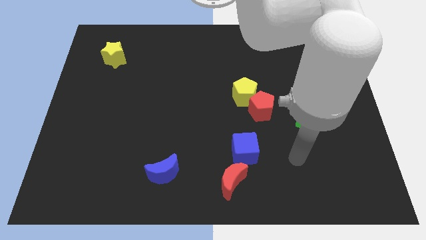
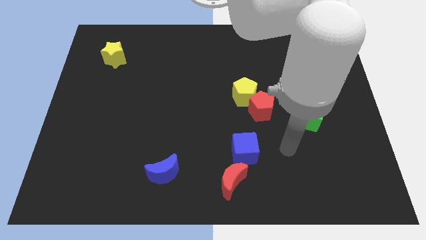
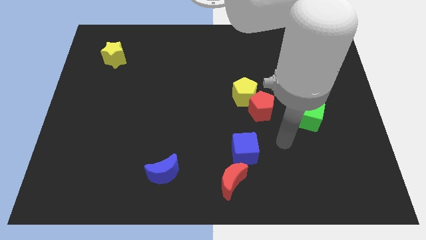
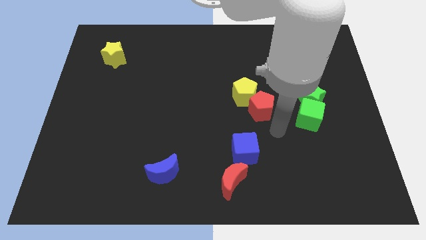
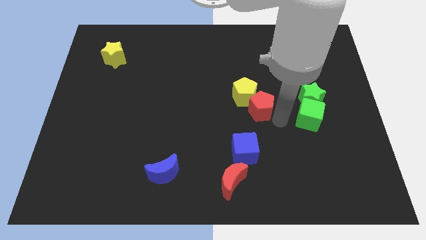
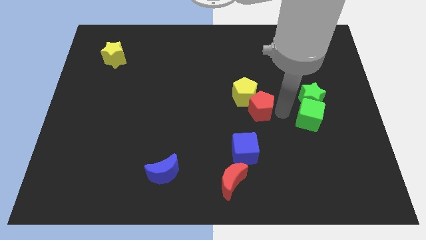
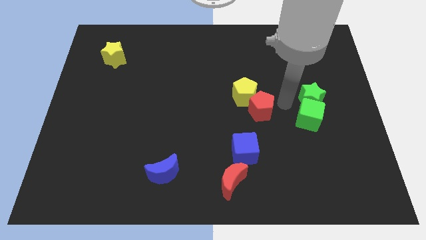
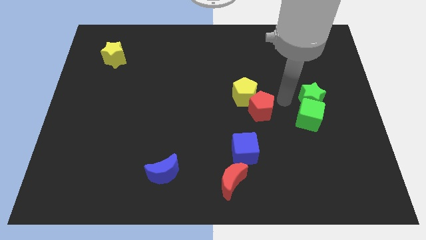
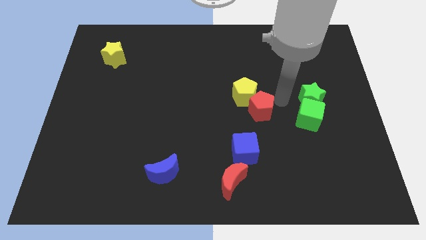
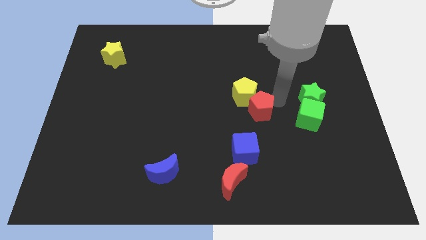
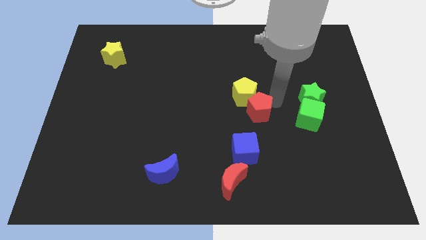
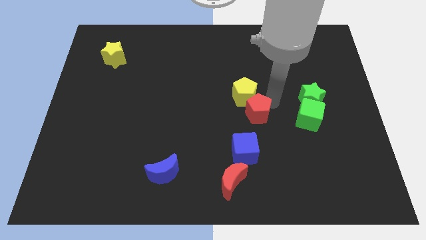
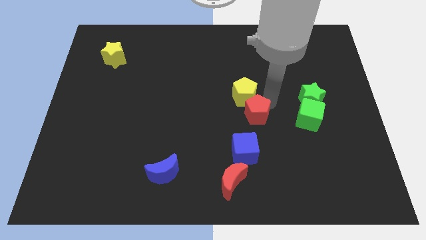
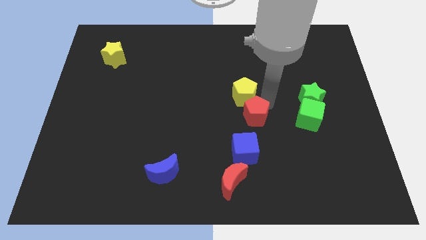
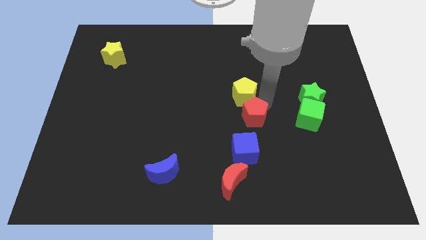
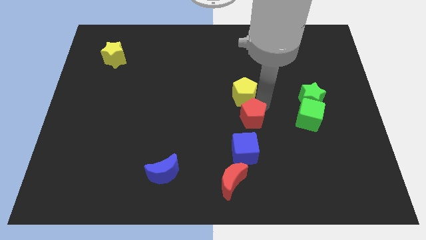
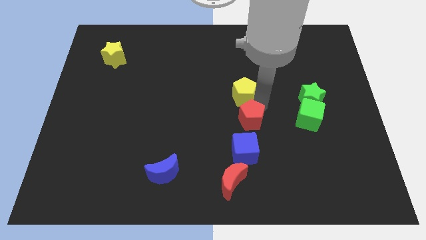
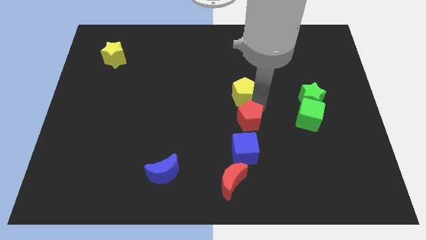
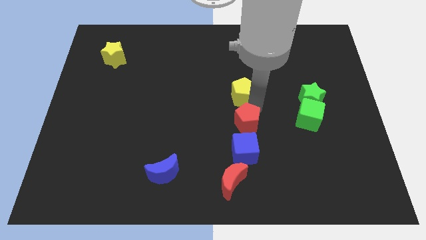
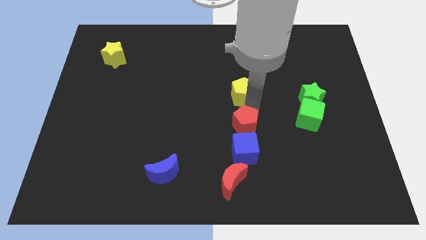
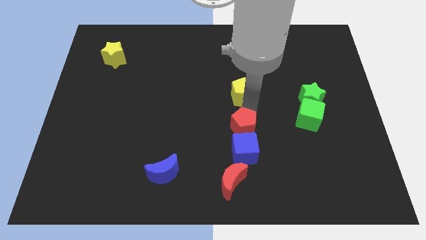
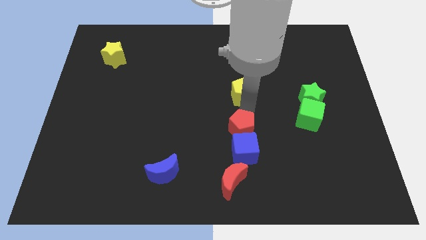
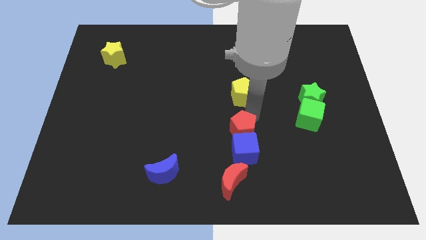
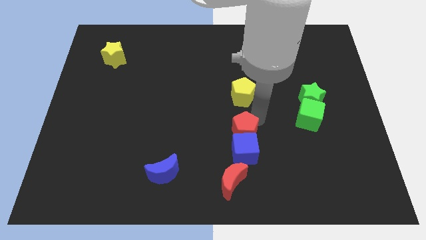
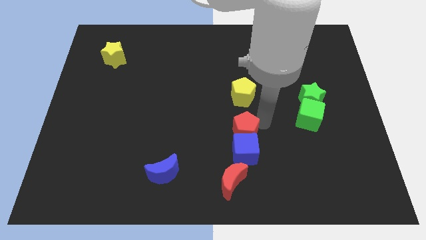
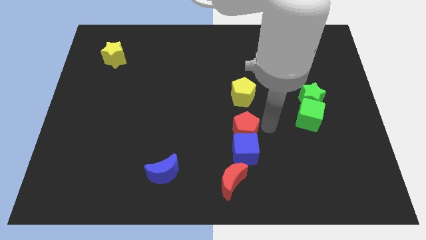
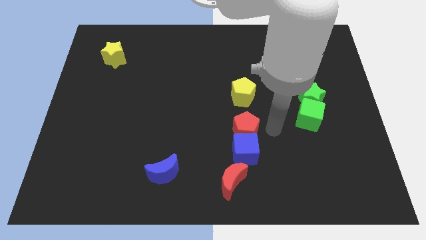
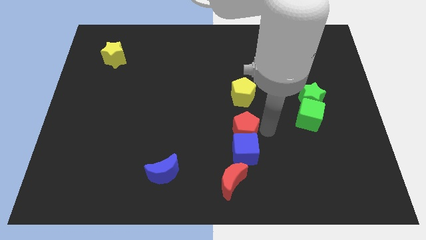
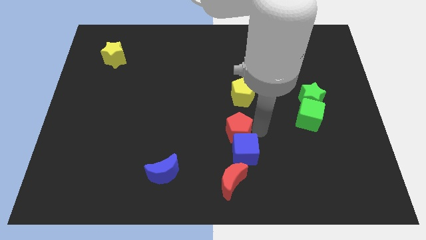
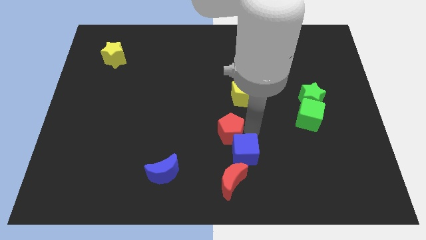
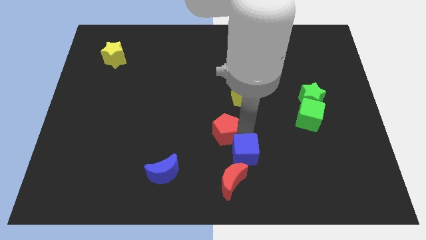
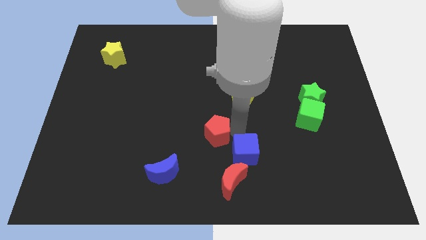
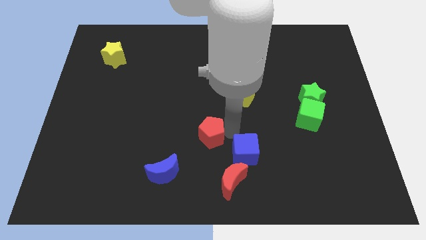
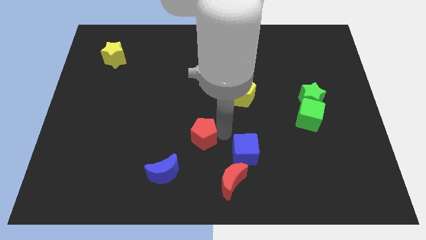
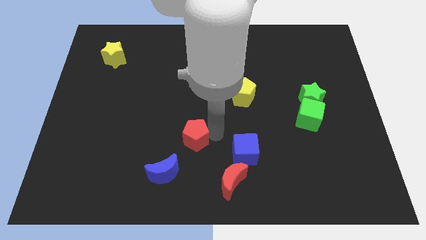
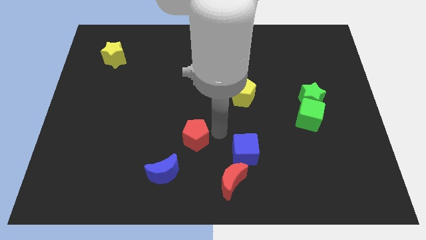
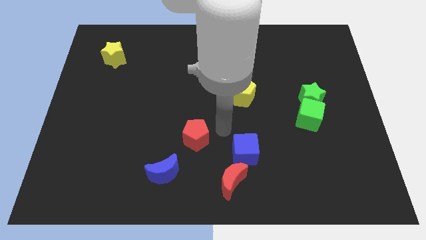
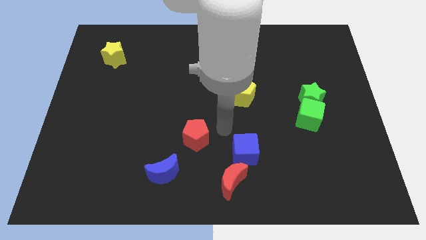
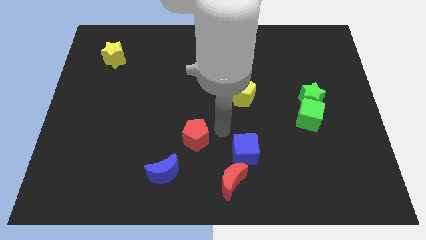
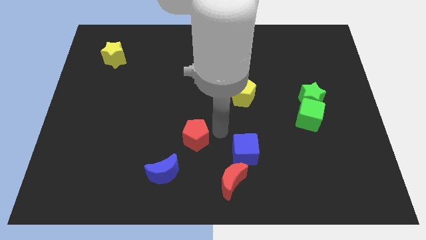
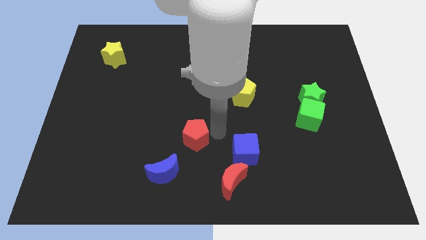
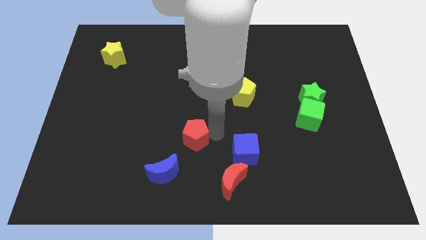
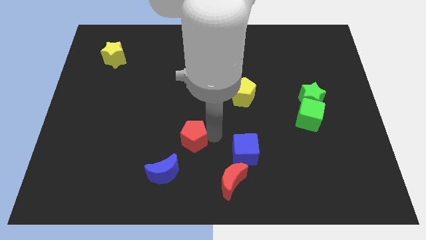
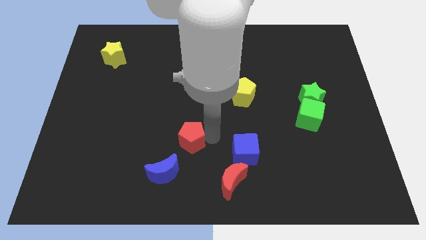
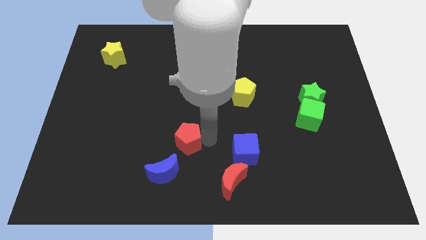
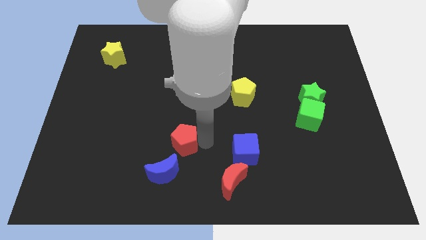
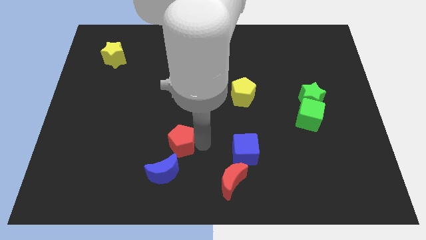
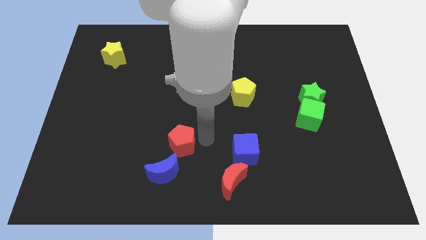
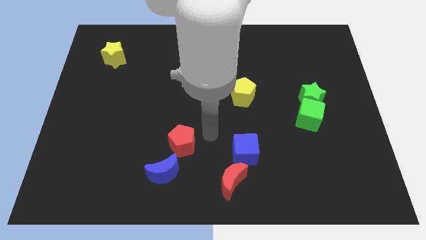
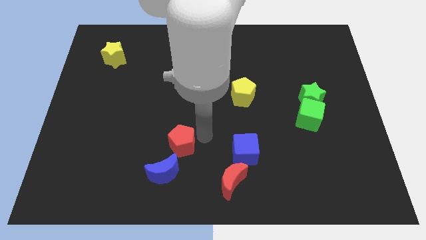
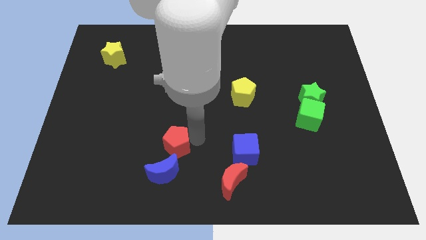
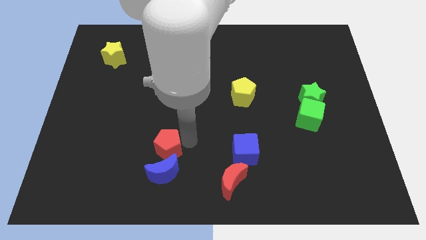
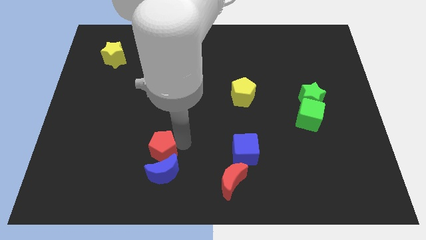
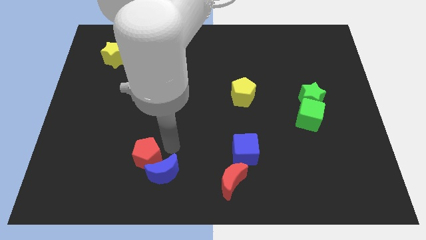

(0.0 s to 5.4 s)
move the red pentagon left of the blue moon

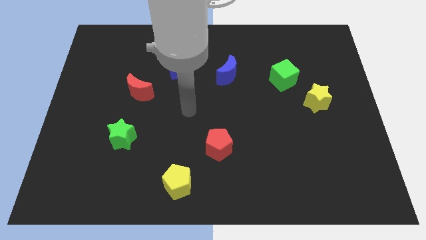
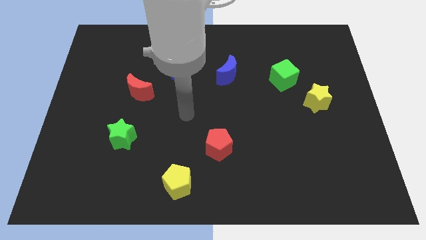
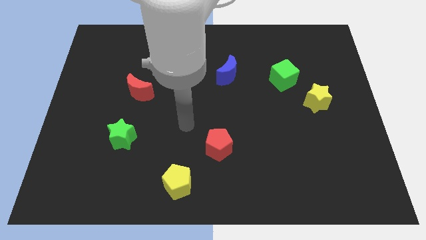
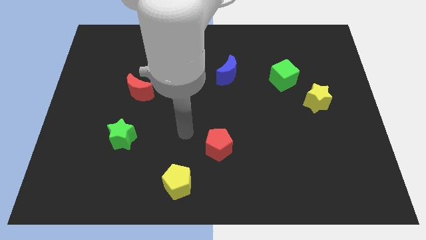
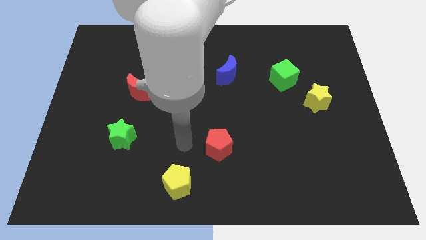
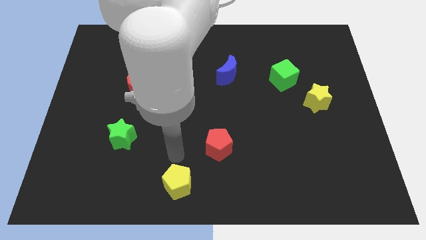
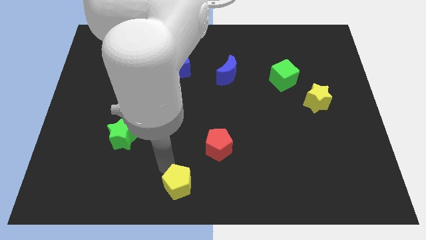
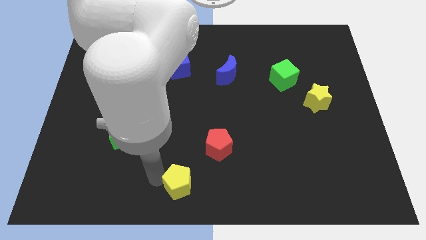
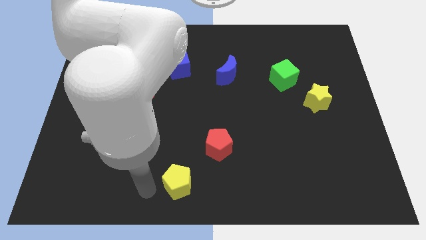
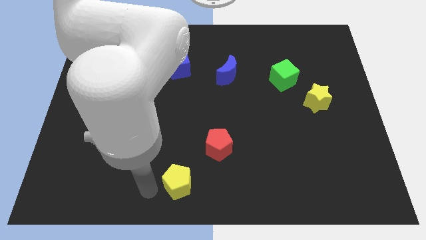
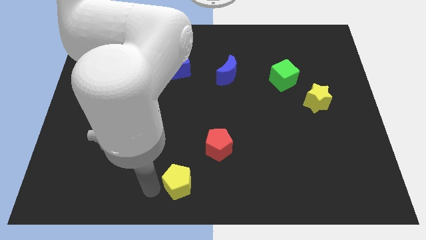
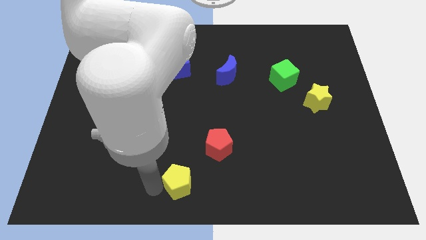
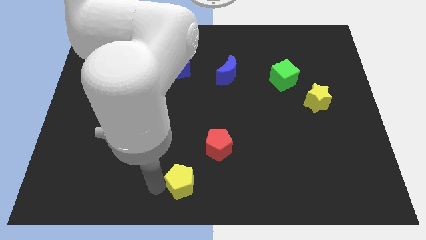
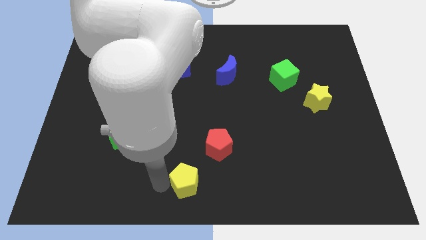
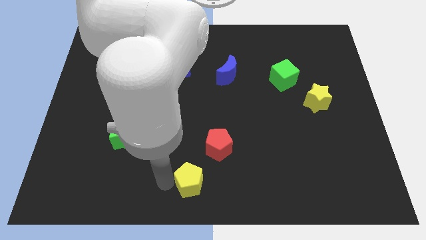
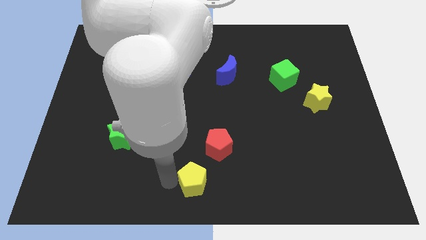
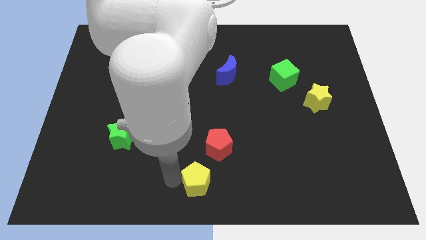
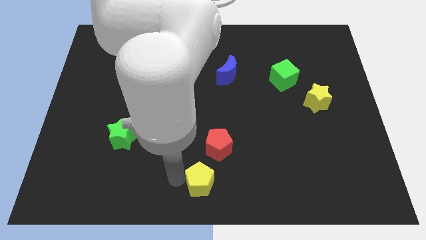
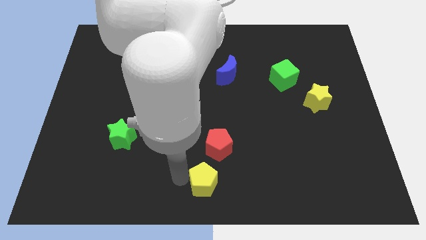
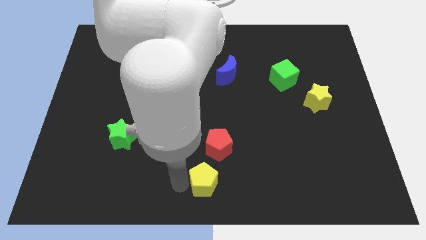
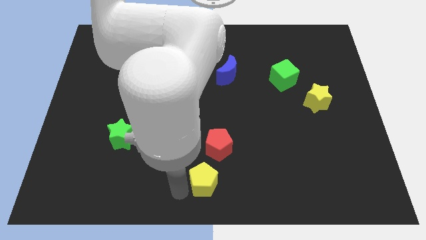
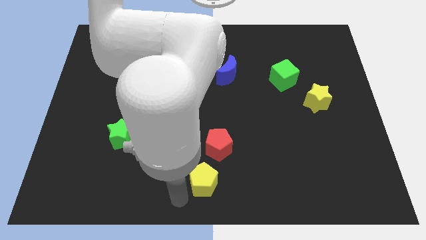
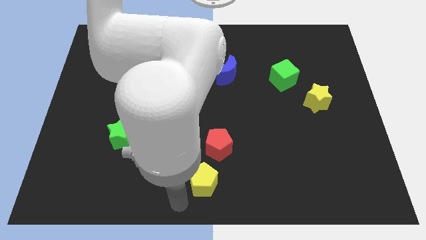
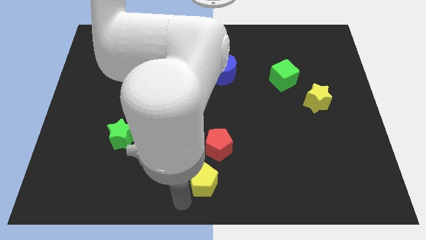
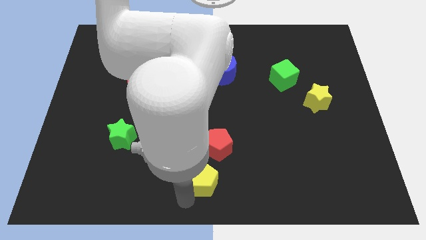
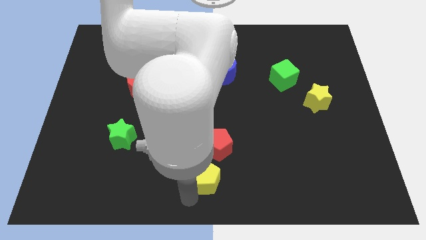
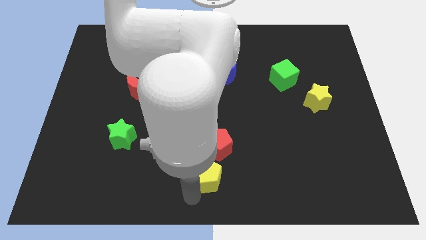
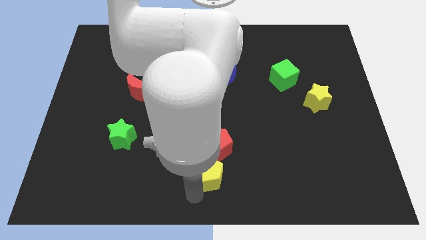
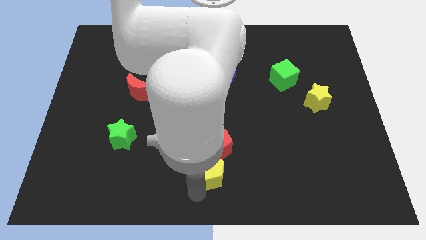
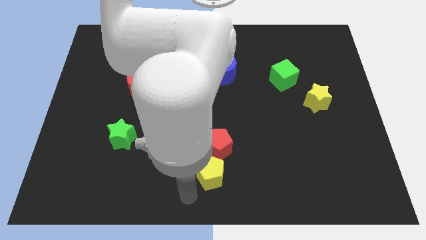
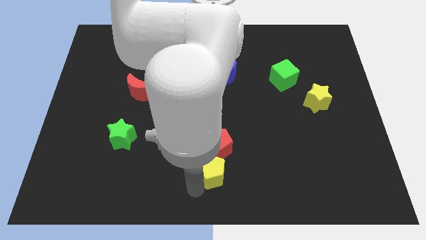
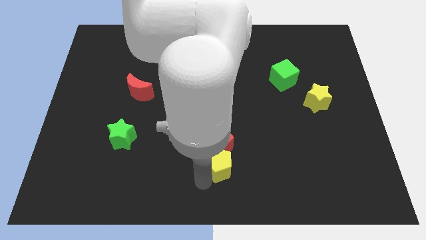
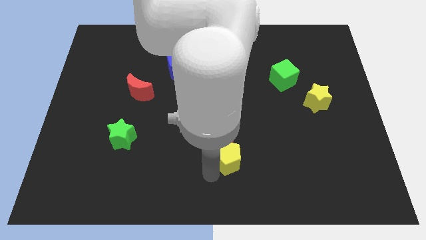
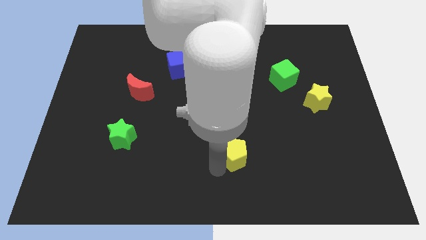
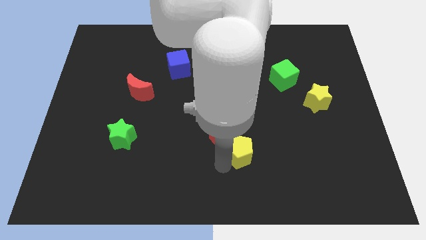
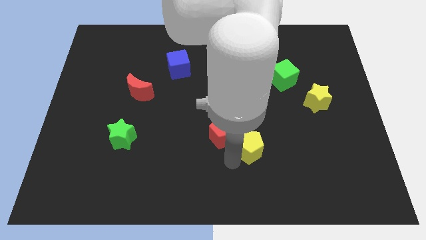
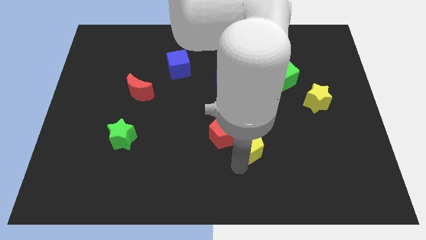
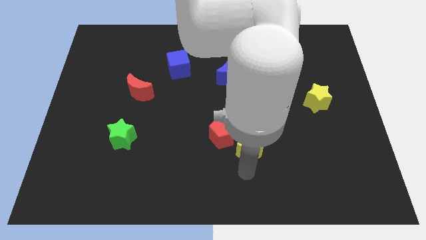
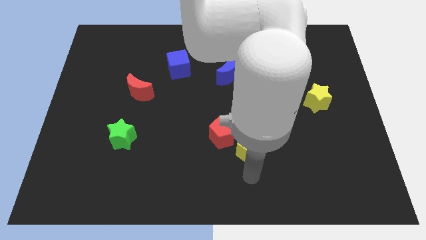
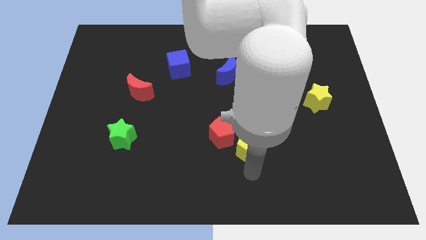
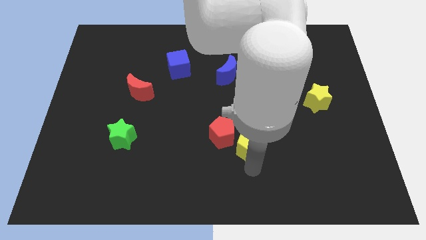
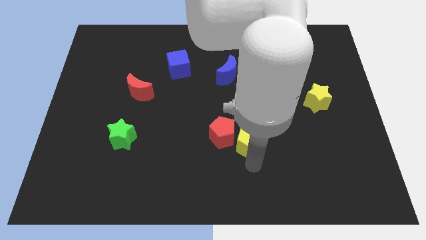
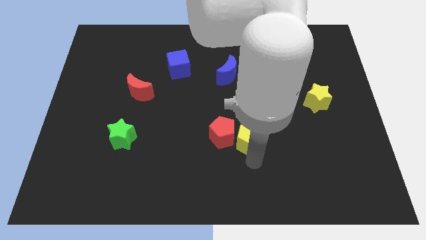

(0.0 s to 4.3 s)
push the yellow pentagon to the top right of the red pentagon
